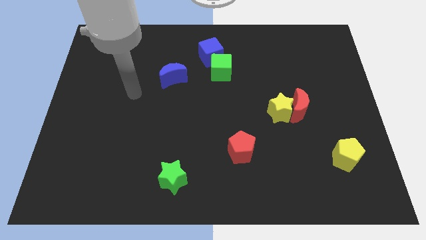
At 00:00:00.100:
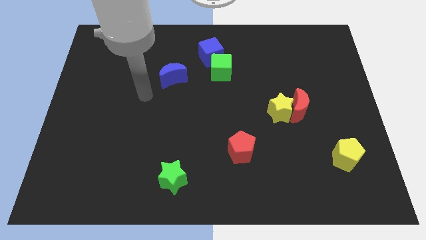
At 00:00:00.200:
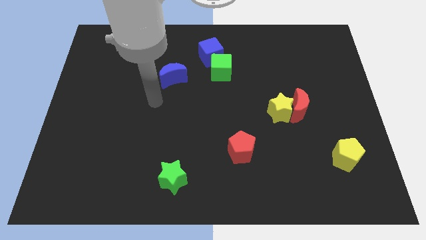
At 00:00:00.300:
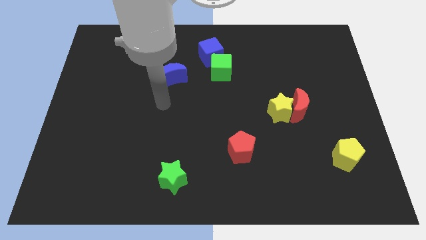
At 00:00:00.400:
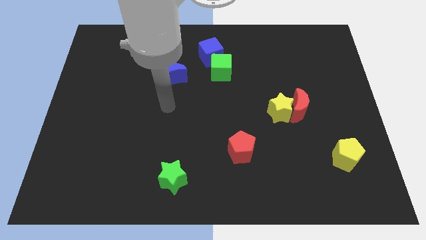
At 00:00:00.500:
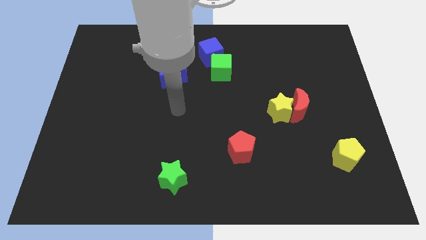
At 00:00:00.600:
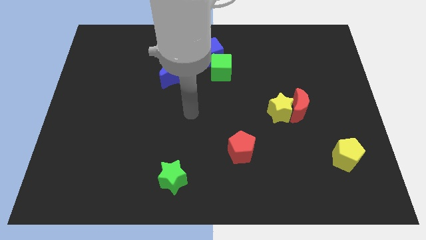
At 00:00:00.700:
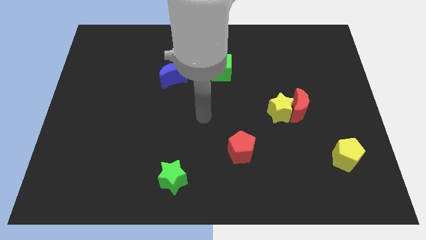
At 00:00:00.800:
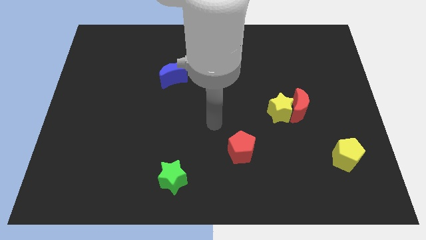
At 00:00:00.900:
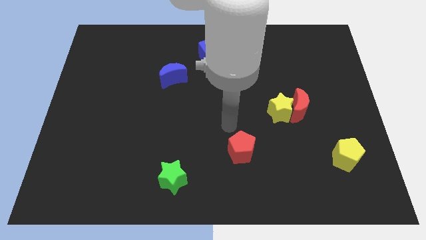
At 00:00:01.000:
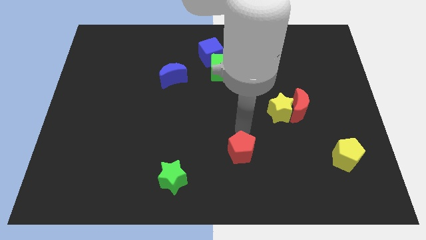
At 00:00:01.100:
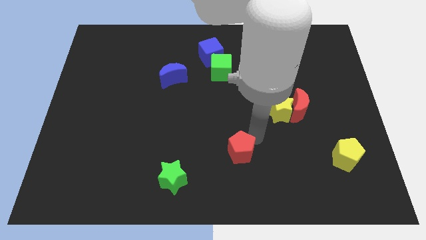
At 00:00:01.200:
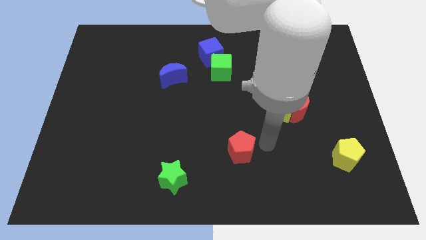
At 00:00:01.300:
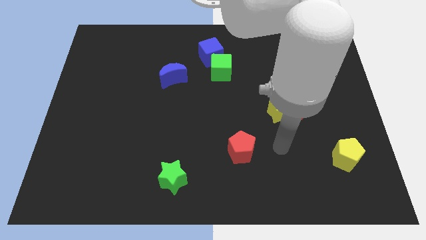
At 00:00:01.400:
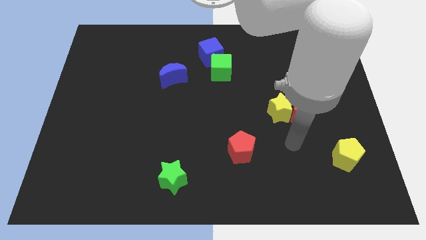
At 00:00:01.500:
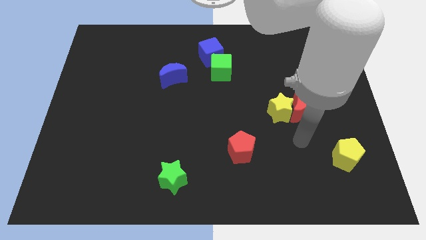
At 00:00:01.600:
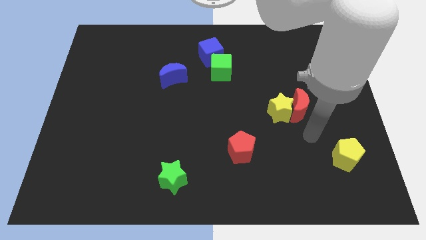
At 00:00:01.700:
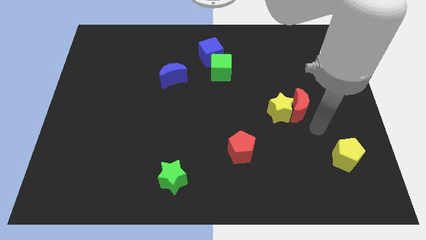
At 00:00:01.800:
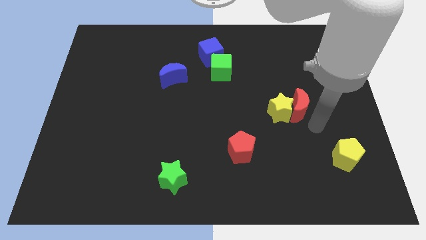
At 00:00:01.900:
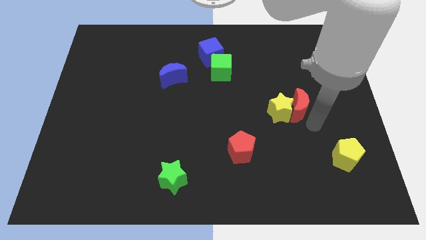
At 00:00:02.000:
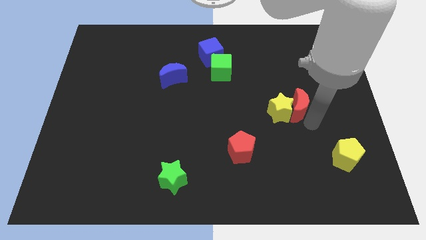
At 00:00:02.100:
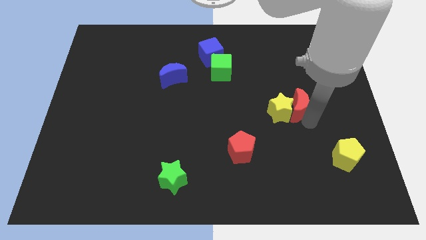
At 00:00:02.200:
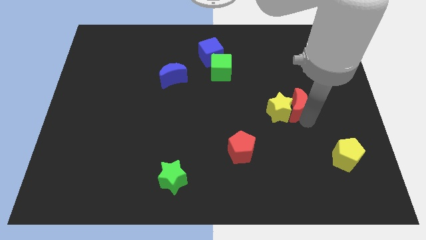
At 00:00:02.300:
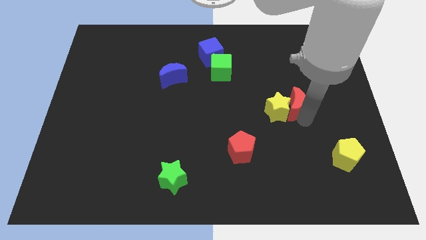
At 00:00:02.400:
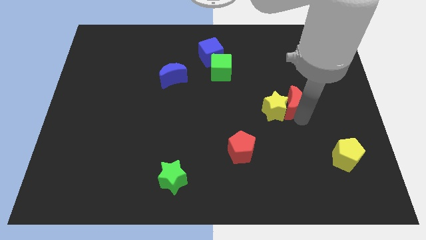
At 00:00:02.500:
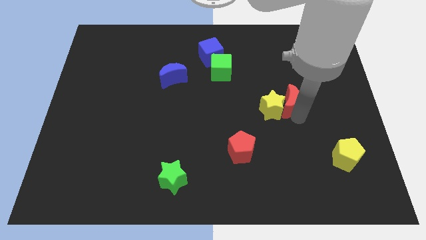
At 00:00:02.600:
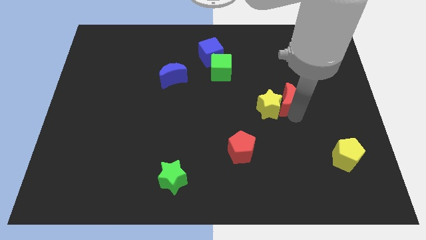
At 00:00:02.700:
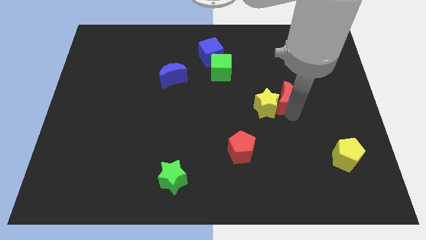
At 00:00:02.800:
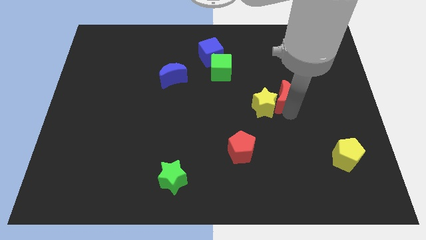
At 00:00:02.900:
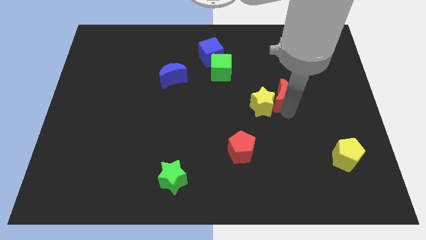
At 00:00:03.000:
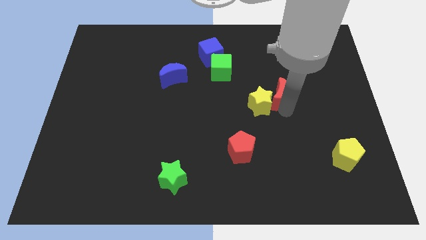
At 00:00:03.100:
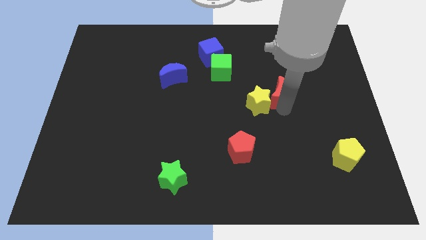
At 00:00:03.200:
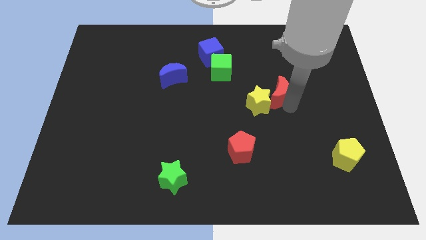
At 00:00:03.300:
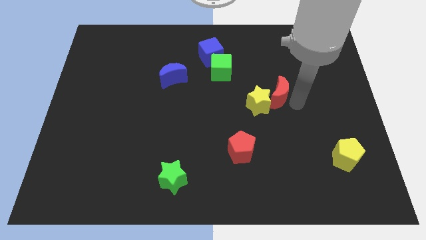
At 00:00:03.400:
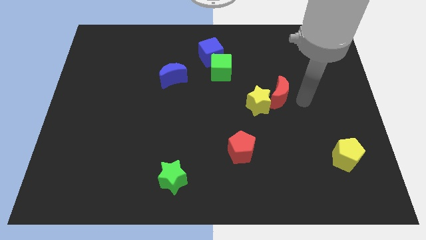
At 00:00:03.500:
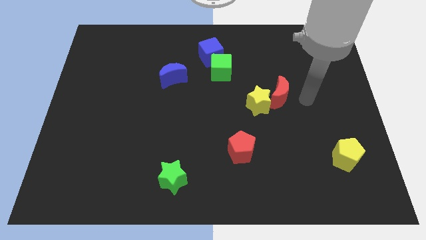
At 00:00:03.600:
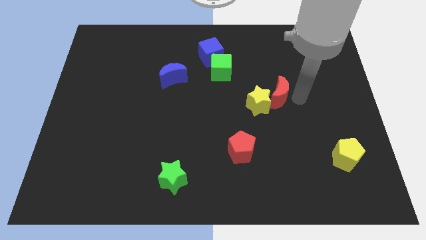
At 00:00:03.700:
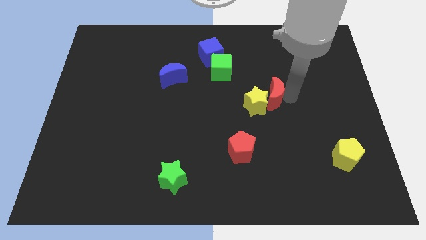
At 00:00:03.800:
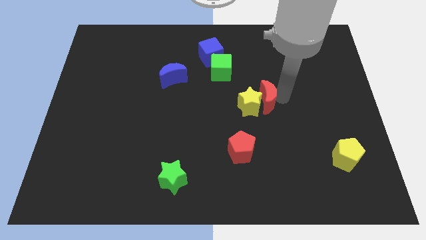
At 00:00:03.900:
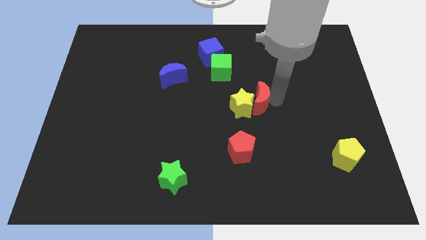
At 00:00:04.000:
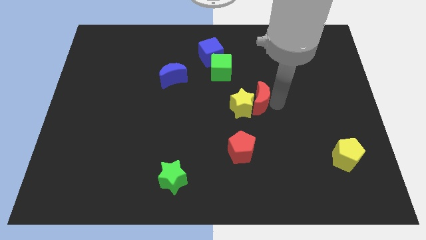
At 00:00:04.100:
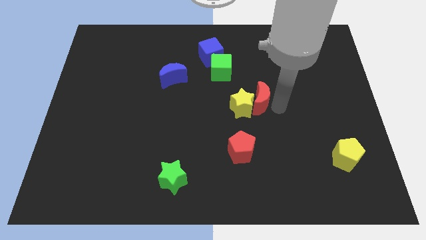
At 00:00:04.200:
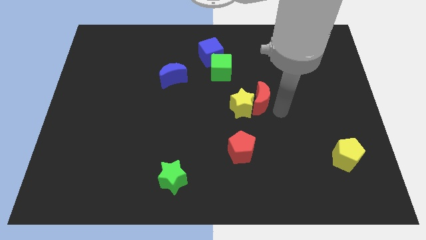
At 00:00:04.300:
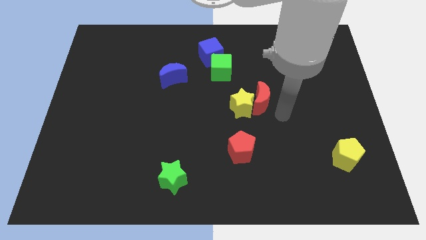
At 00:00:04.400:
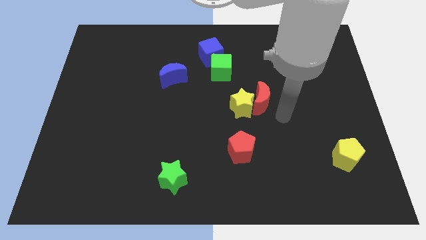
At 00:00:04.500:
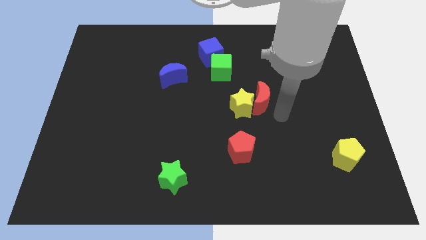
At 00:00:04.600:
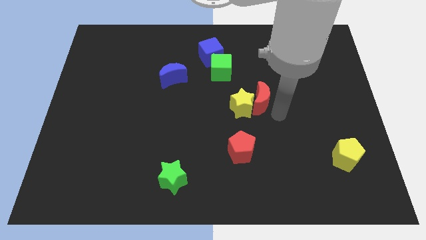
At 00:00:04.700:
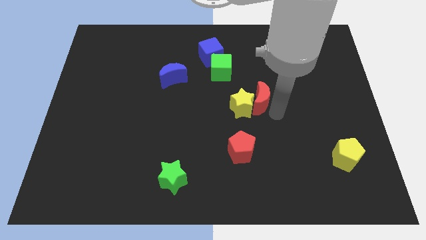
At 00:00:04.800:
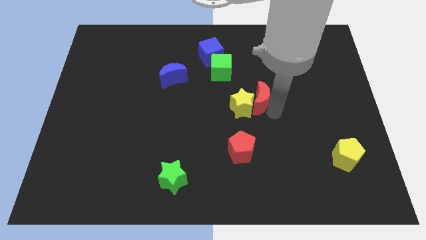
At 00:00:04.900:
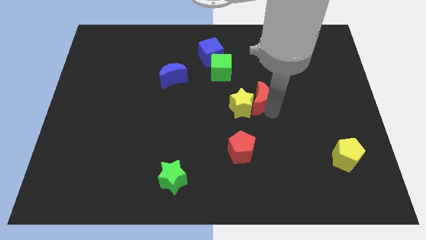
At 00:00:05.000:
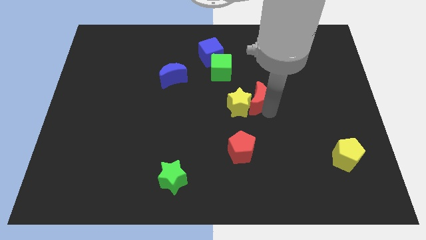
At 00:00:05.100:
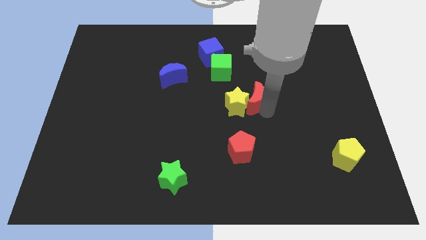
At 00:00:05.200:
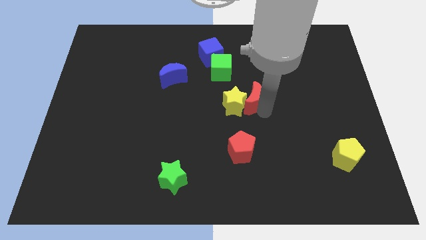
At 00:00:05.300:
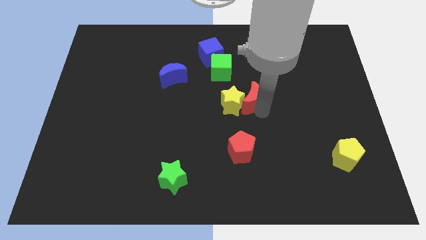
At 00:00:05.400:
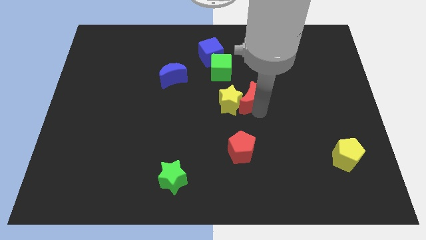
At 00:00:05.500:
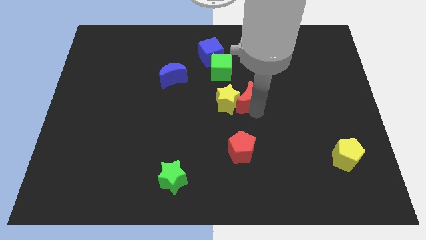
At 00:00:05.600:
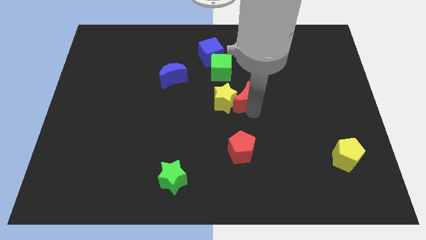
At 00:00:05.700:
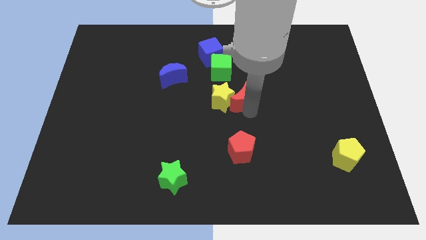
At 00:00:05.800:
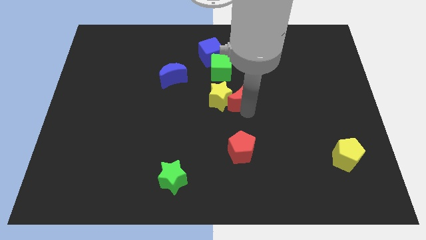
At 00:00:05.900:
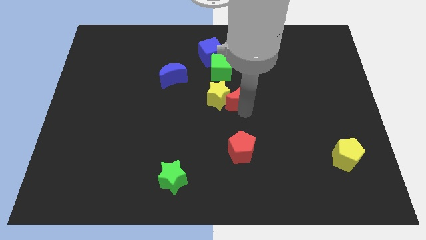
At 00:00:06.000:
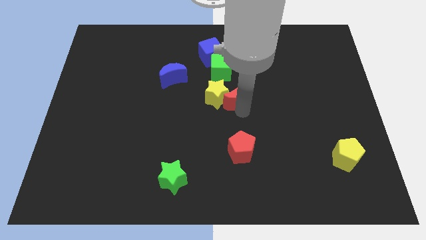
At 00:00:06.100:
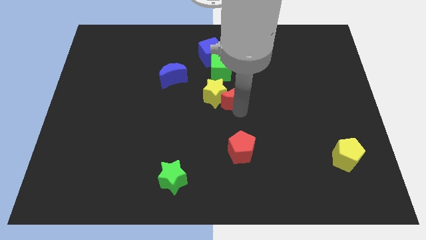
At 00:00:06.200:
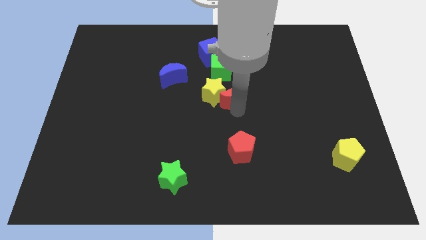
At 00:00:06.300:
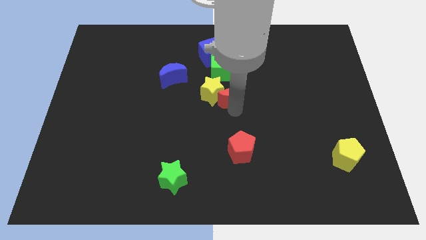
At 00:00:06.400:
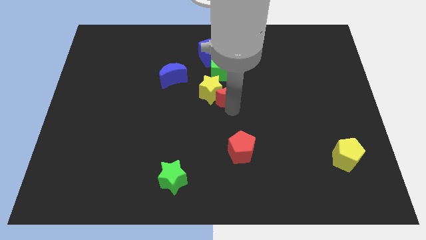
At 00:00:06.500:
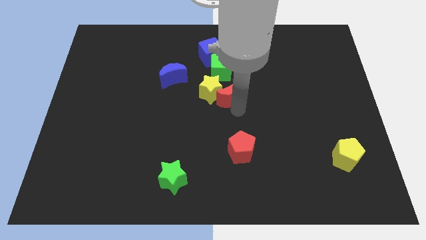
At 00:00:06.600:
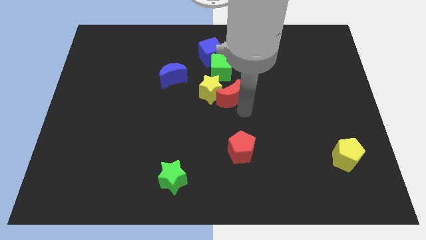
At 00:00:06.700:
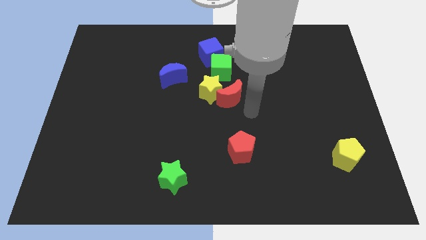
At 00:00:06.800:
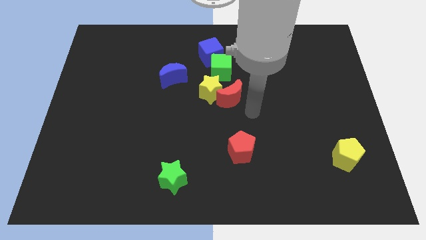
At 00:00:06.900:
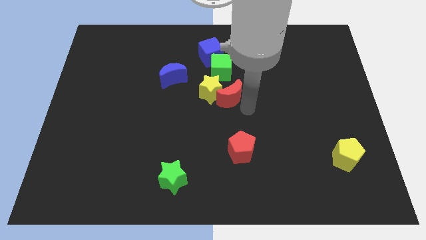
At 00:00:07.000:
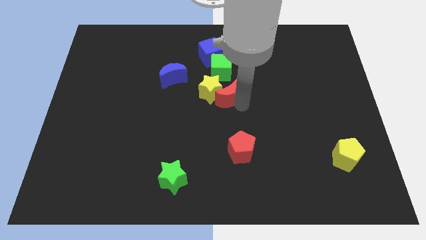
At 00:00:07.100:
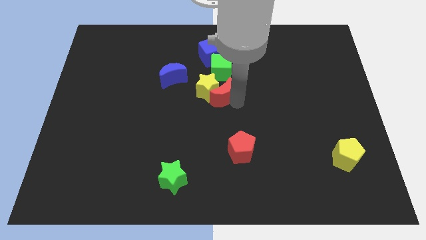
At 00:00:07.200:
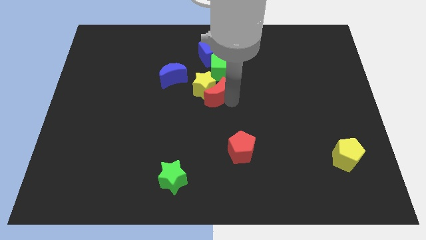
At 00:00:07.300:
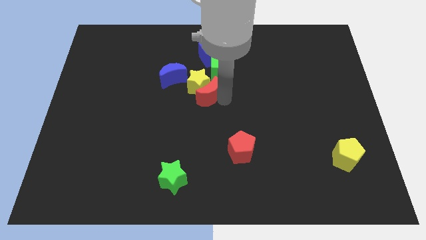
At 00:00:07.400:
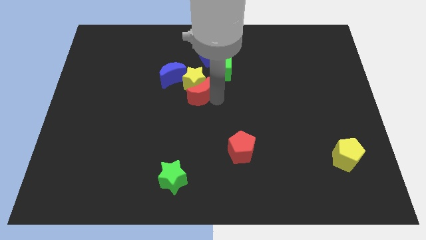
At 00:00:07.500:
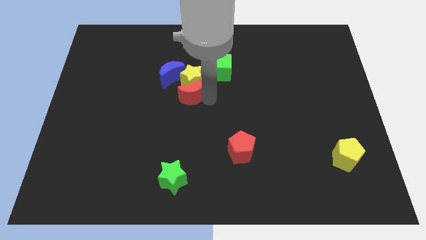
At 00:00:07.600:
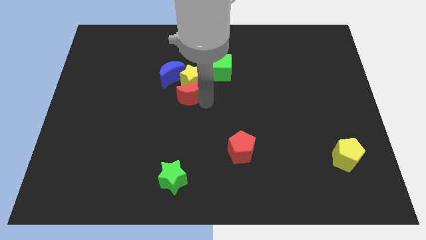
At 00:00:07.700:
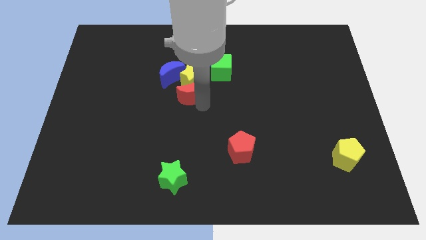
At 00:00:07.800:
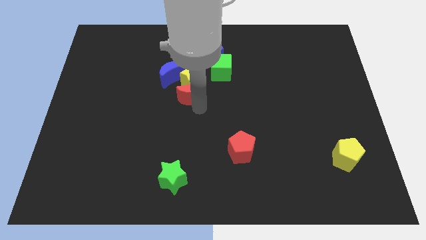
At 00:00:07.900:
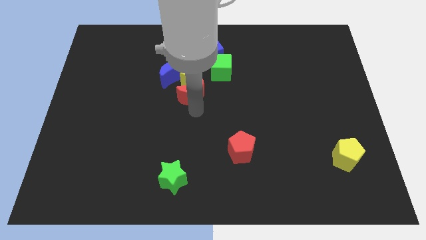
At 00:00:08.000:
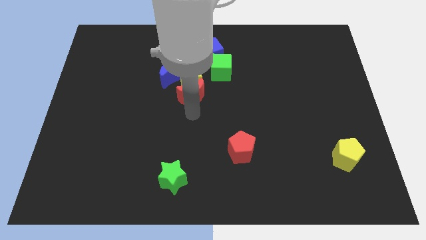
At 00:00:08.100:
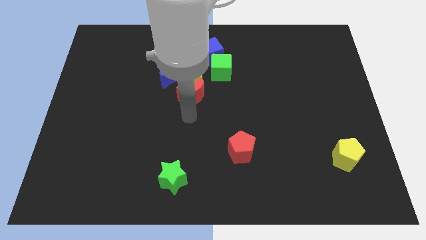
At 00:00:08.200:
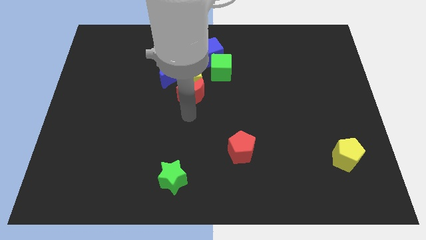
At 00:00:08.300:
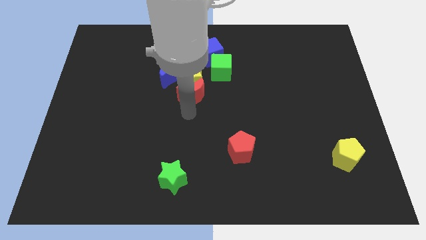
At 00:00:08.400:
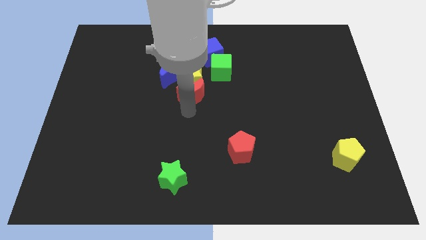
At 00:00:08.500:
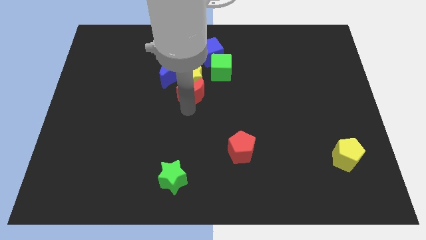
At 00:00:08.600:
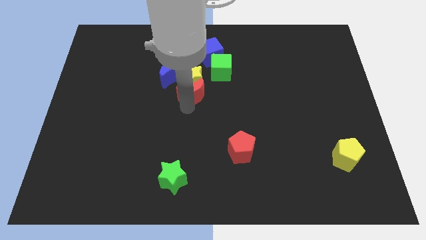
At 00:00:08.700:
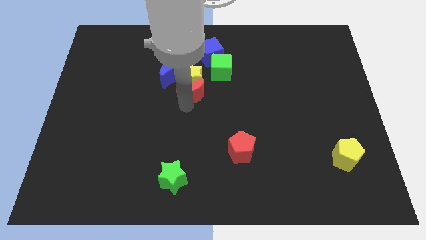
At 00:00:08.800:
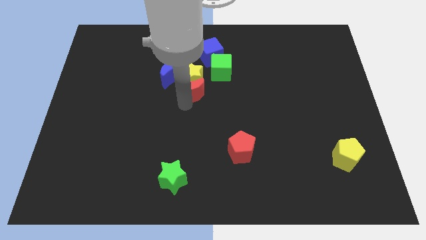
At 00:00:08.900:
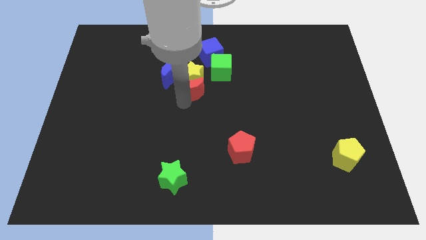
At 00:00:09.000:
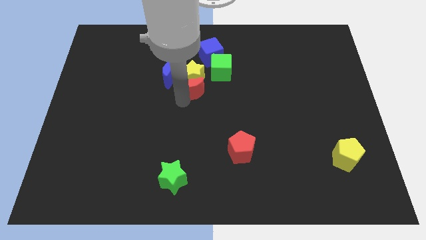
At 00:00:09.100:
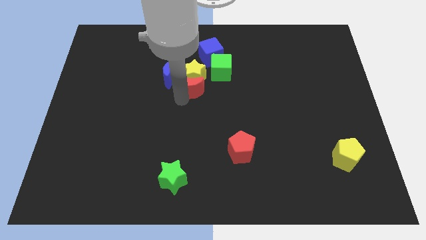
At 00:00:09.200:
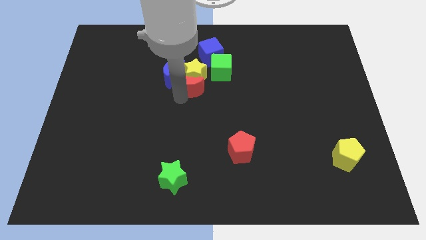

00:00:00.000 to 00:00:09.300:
move the red moon close to the blue moon
